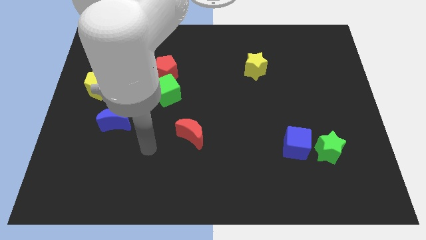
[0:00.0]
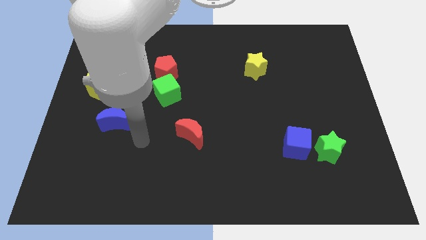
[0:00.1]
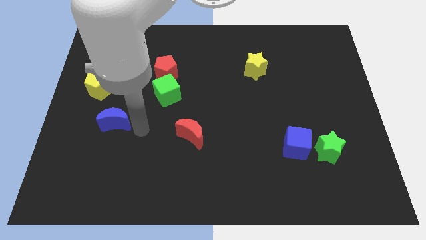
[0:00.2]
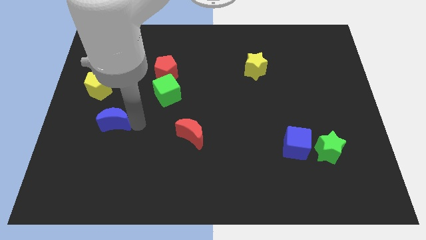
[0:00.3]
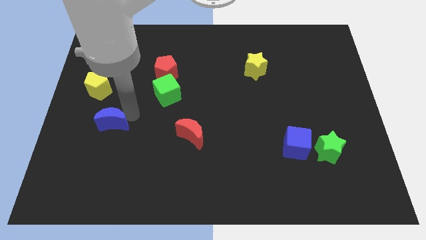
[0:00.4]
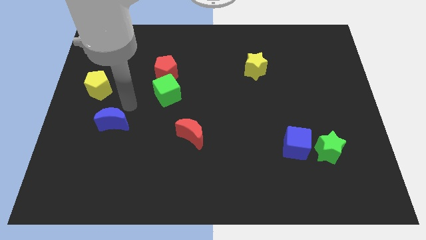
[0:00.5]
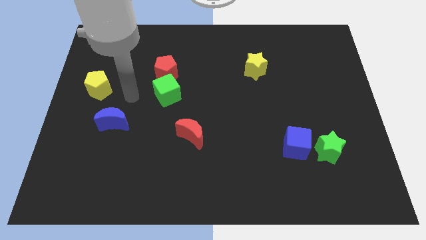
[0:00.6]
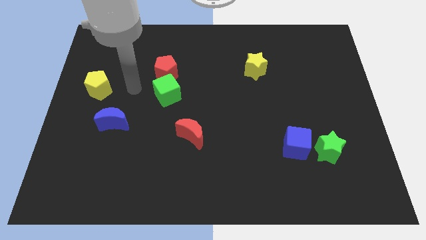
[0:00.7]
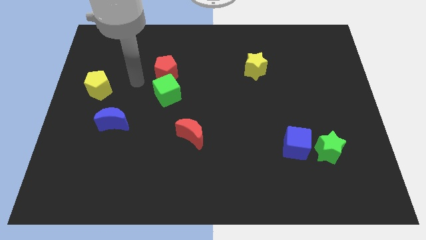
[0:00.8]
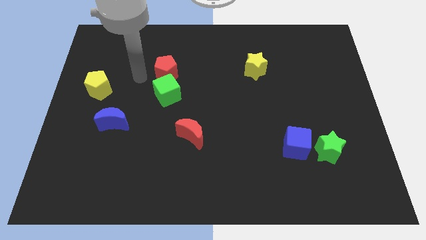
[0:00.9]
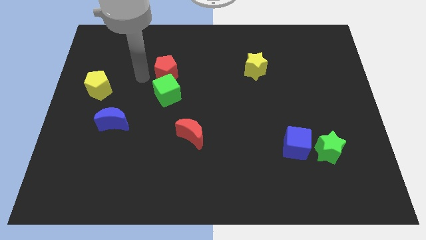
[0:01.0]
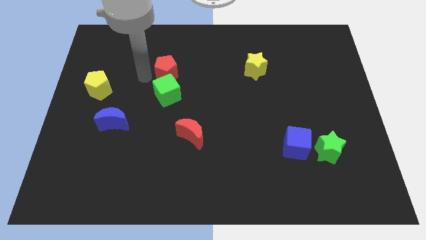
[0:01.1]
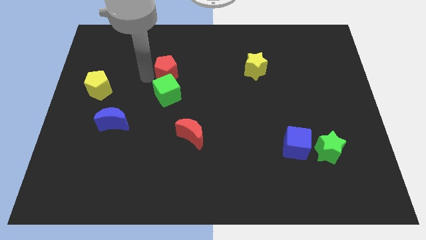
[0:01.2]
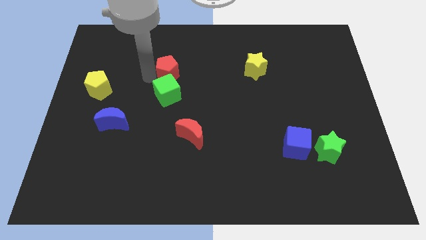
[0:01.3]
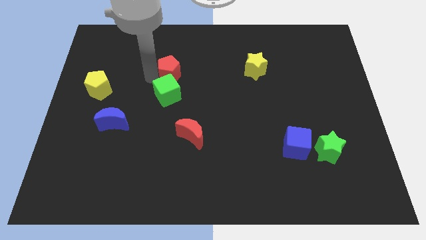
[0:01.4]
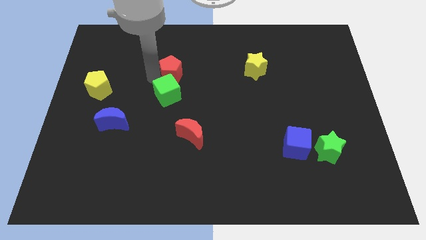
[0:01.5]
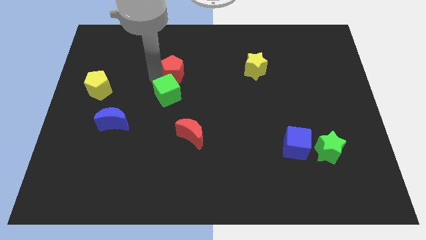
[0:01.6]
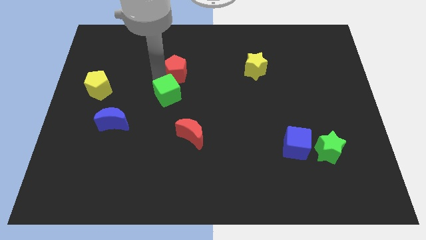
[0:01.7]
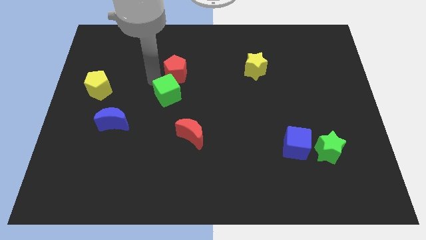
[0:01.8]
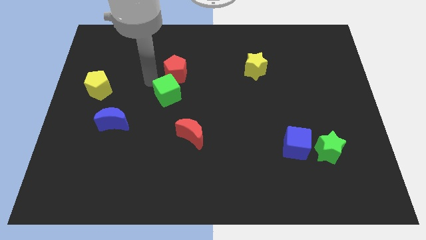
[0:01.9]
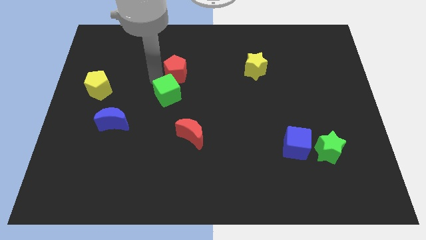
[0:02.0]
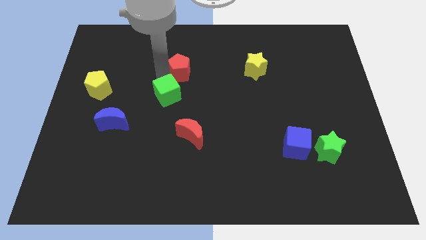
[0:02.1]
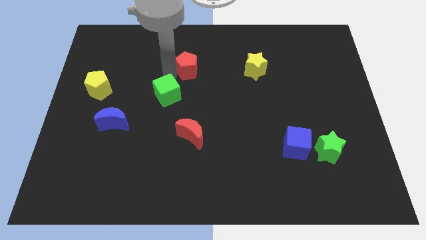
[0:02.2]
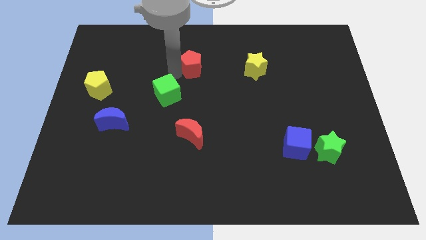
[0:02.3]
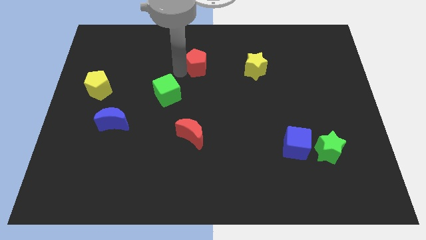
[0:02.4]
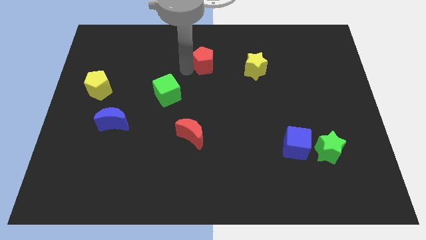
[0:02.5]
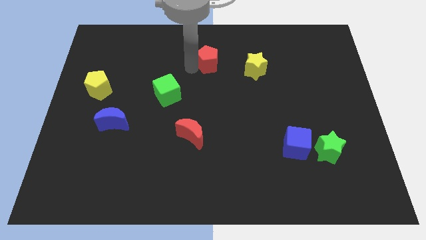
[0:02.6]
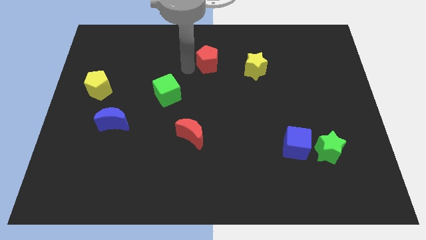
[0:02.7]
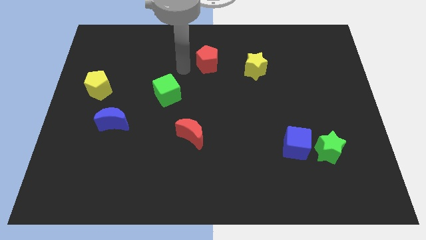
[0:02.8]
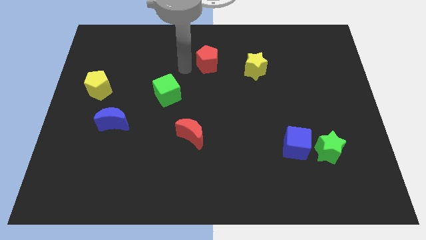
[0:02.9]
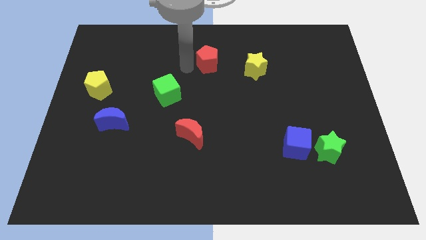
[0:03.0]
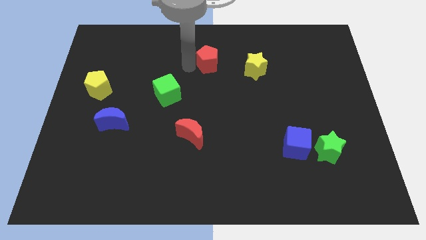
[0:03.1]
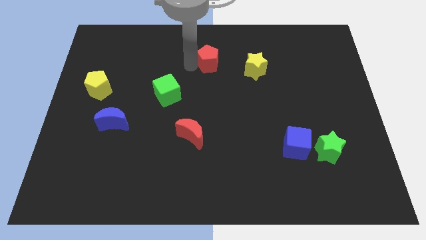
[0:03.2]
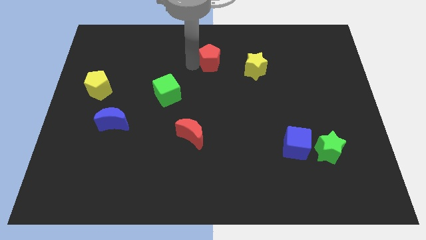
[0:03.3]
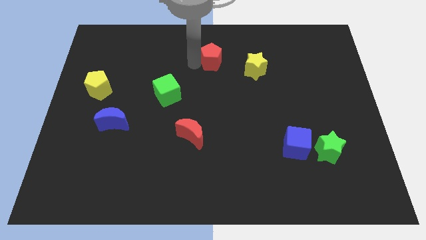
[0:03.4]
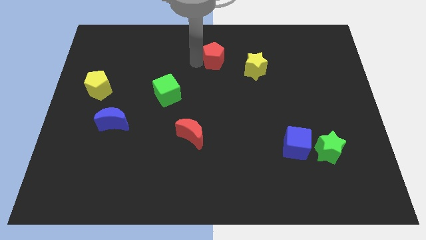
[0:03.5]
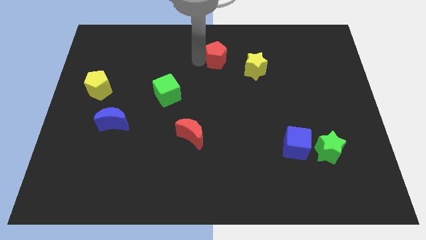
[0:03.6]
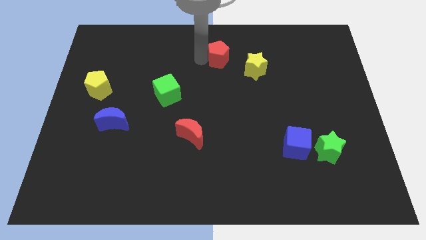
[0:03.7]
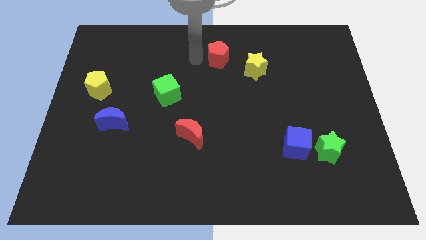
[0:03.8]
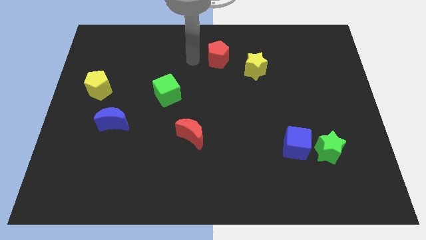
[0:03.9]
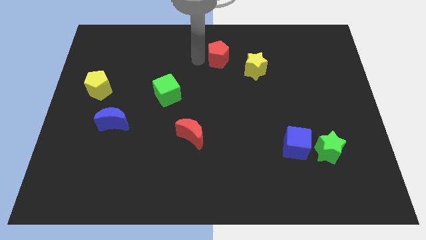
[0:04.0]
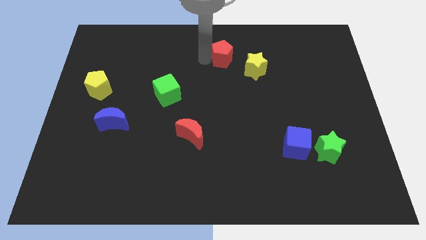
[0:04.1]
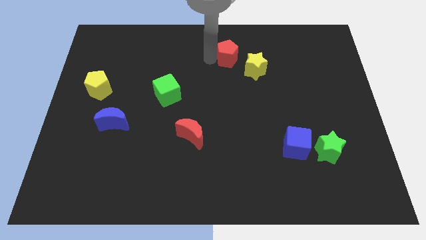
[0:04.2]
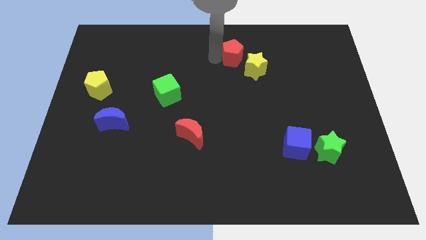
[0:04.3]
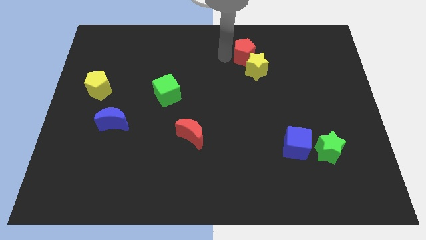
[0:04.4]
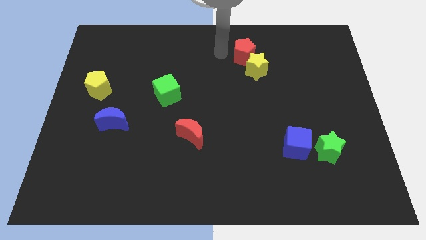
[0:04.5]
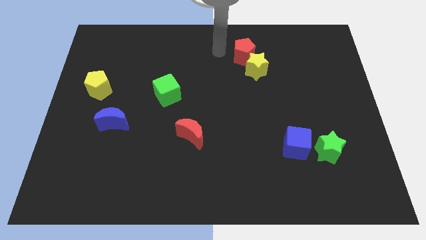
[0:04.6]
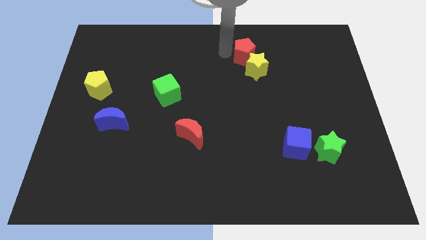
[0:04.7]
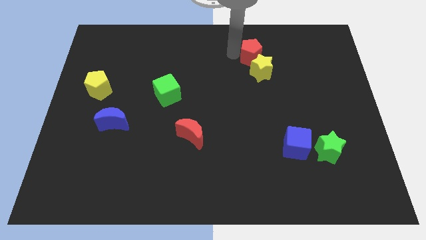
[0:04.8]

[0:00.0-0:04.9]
slide the red pentagon right

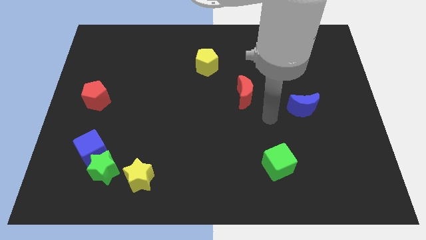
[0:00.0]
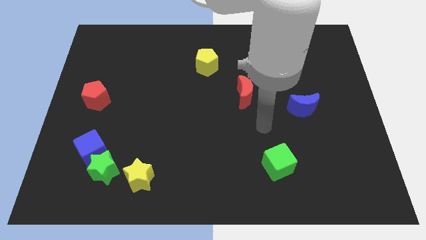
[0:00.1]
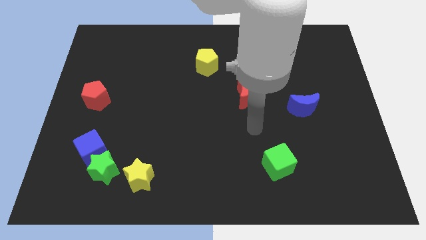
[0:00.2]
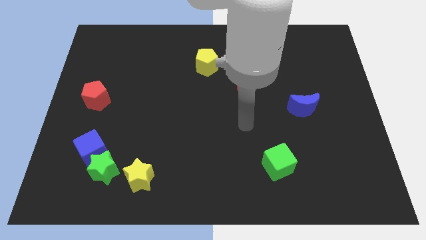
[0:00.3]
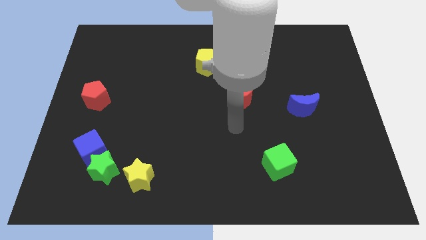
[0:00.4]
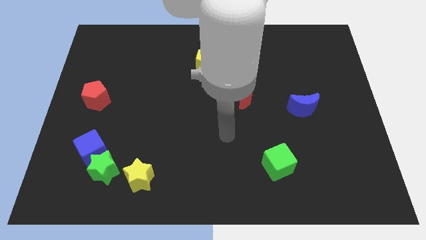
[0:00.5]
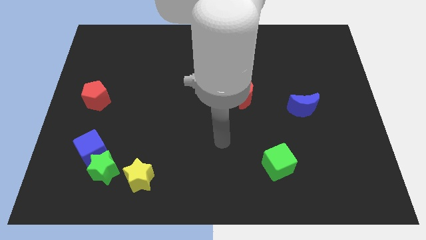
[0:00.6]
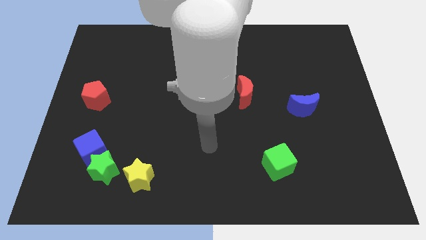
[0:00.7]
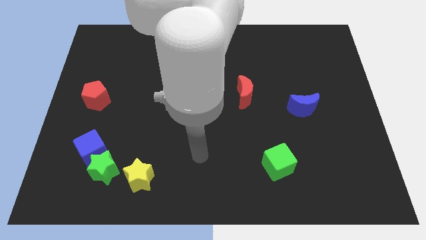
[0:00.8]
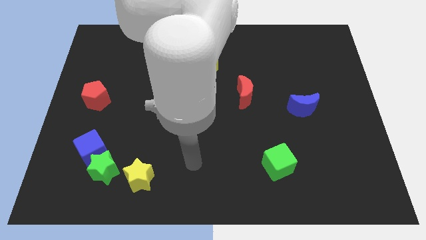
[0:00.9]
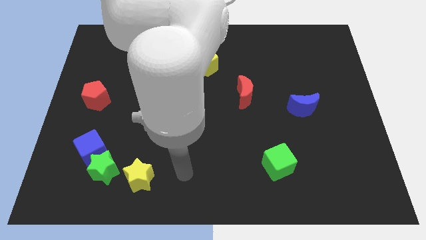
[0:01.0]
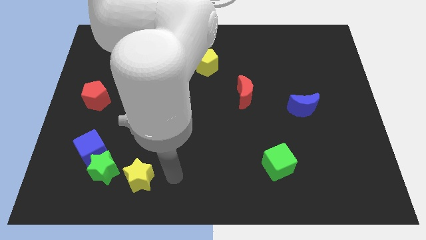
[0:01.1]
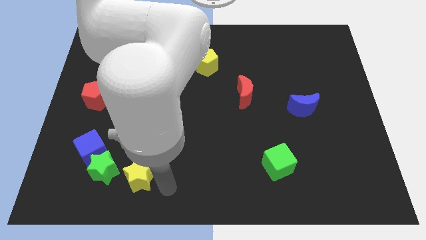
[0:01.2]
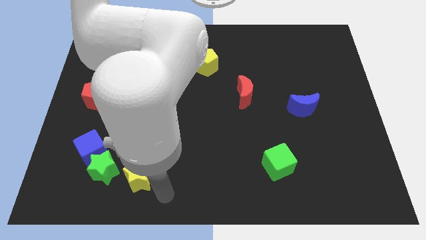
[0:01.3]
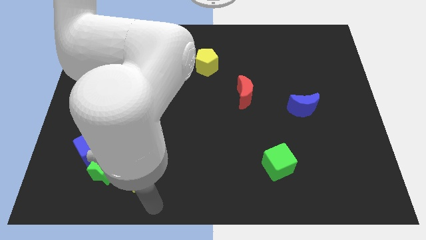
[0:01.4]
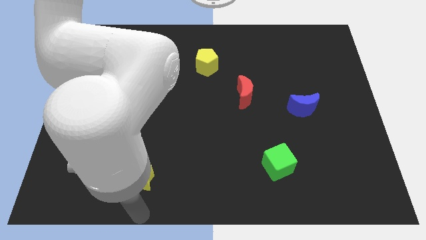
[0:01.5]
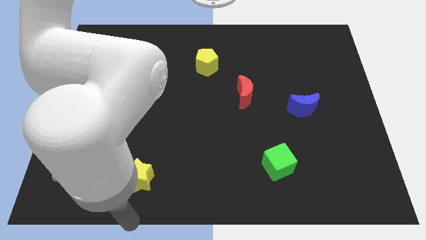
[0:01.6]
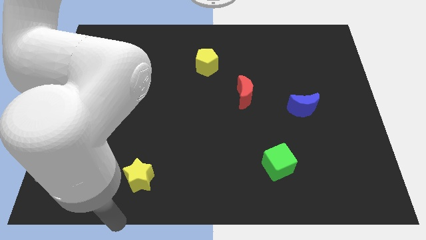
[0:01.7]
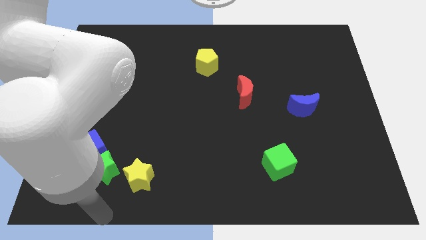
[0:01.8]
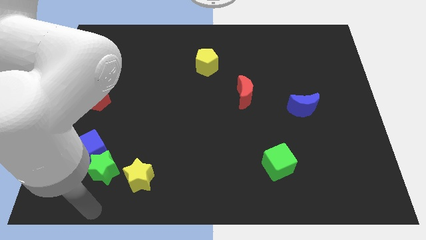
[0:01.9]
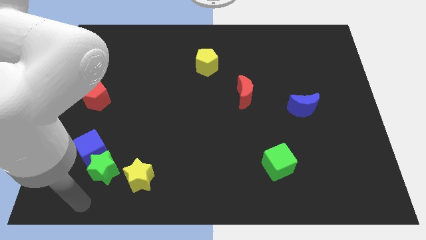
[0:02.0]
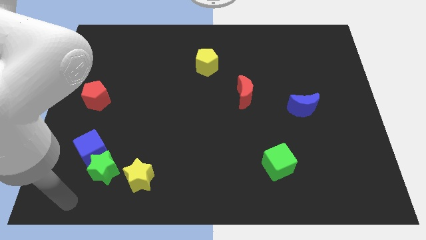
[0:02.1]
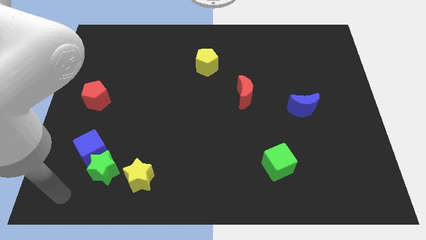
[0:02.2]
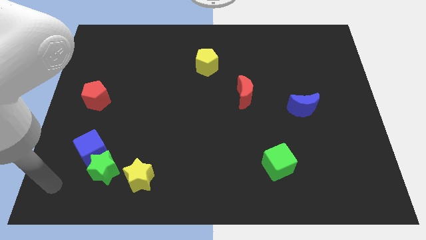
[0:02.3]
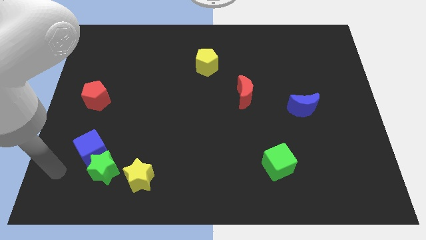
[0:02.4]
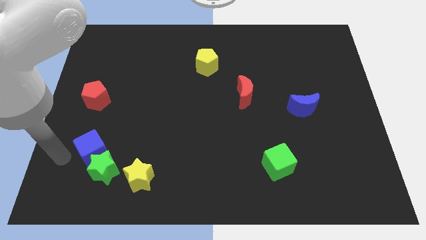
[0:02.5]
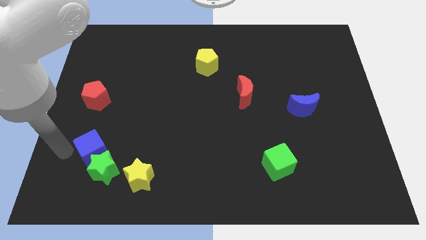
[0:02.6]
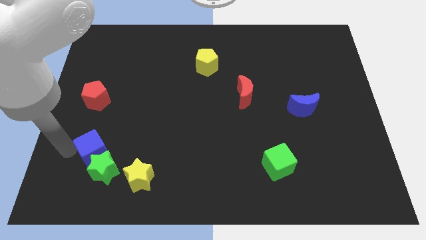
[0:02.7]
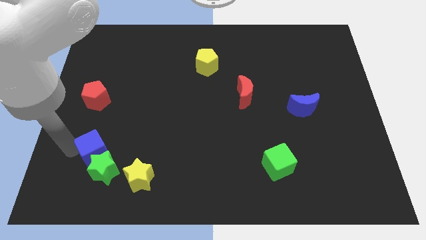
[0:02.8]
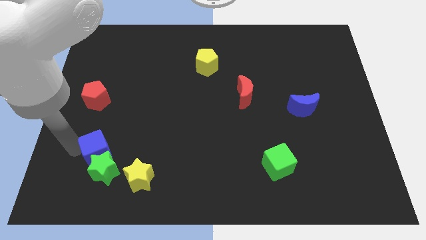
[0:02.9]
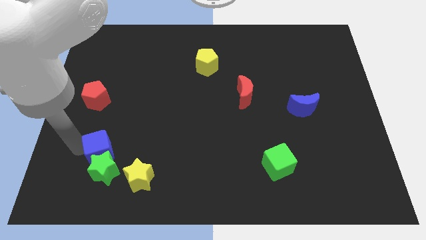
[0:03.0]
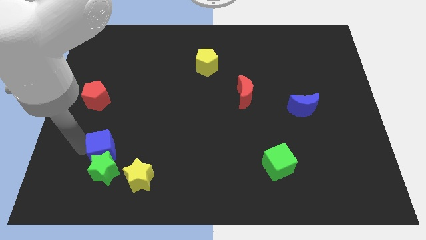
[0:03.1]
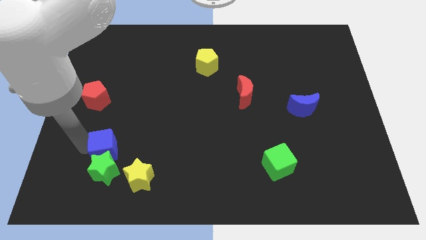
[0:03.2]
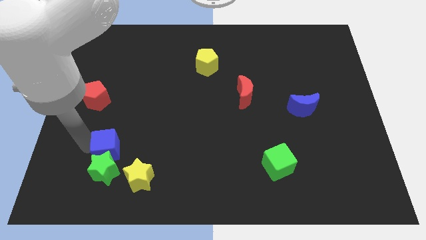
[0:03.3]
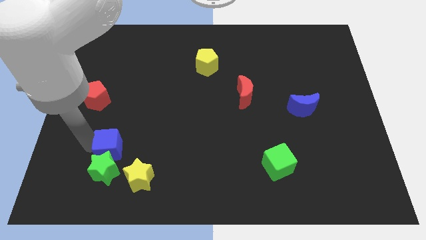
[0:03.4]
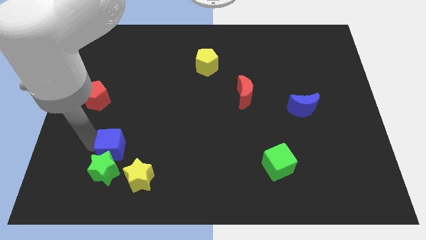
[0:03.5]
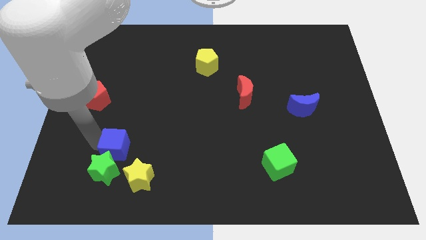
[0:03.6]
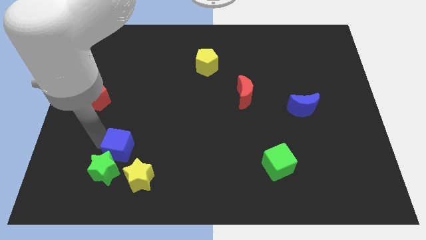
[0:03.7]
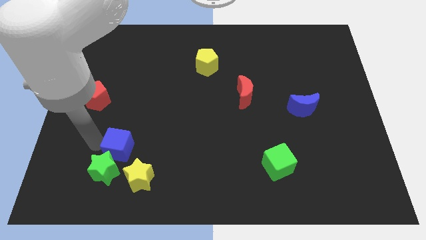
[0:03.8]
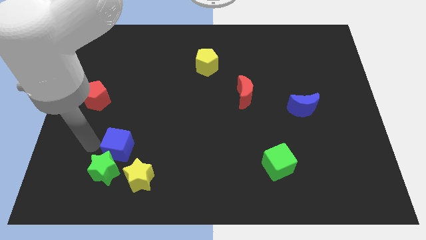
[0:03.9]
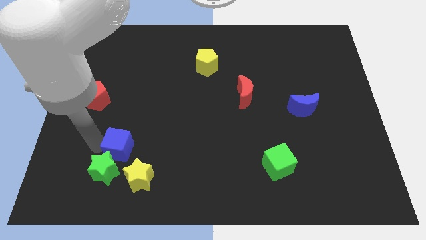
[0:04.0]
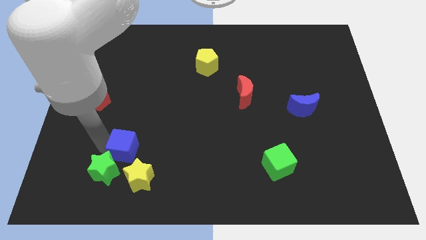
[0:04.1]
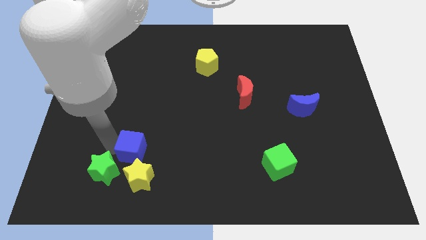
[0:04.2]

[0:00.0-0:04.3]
slide the blue cube to the right a little
